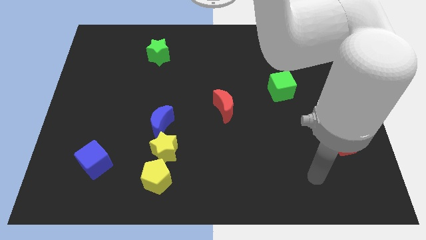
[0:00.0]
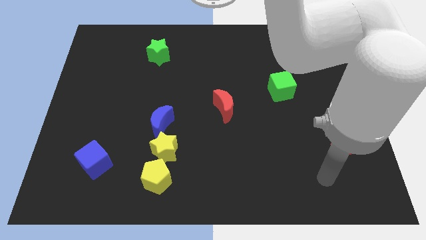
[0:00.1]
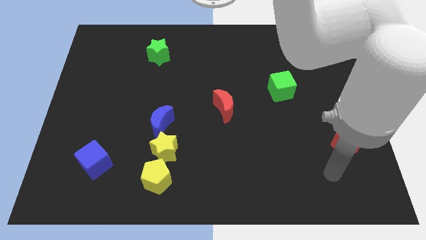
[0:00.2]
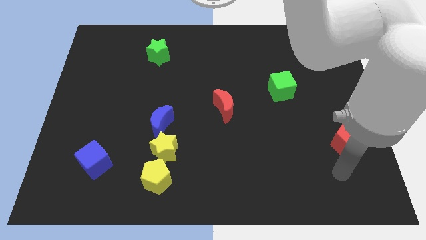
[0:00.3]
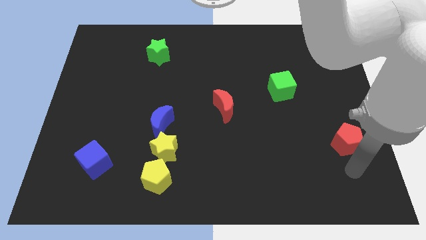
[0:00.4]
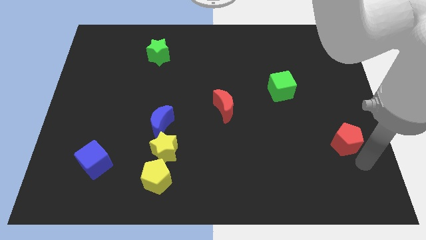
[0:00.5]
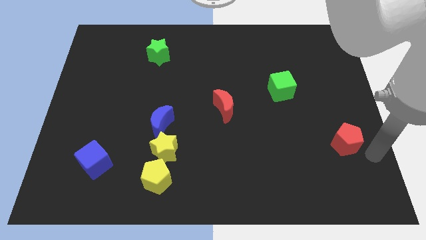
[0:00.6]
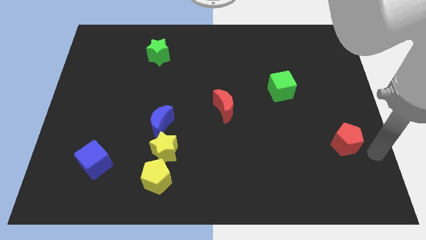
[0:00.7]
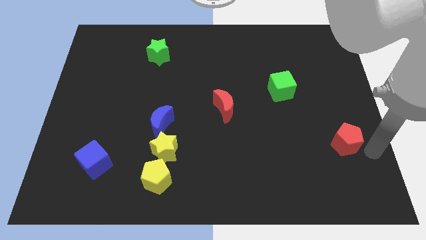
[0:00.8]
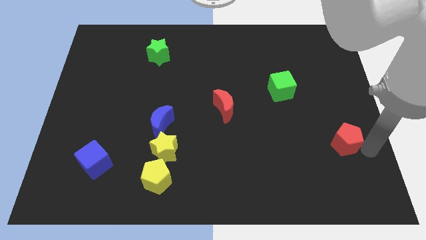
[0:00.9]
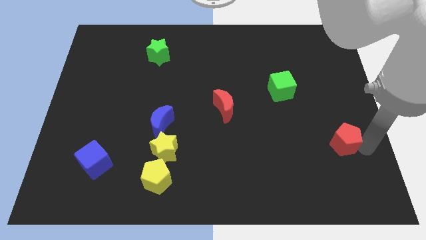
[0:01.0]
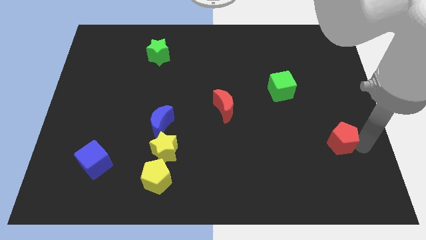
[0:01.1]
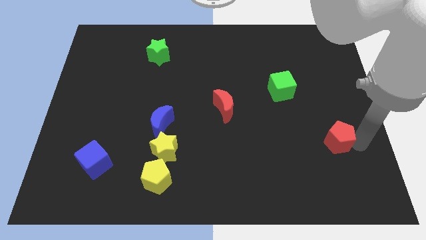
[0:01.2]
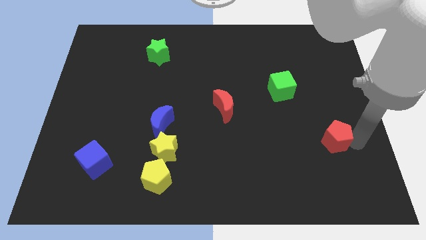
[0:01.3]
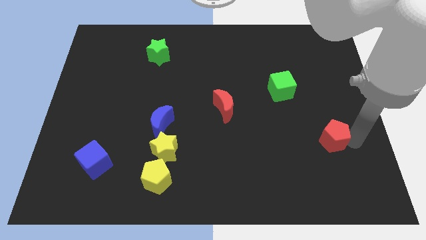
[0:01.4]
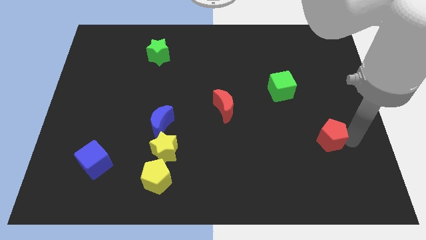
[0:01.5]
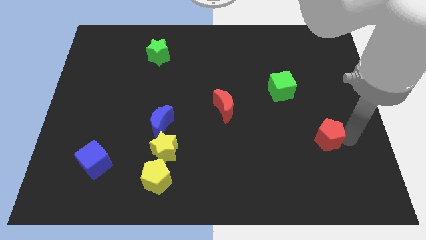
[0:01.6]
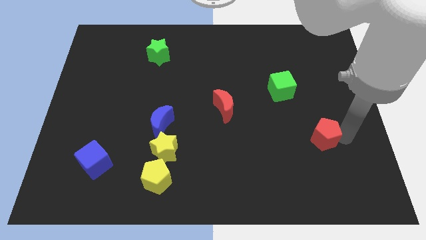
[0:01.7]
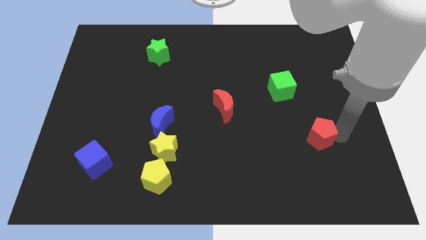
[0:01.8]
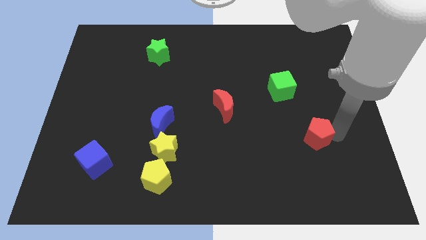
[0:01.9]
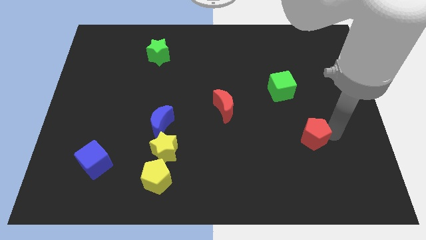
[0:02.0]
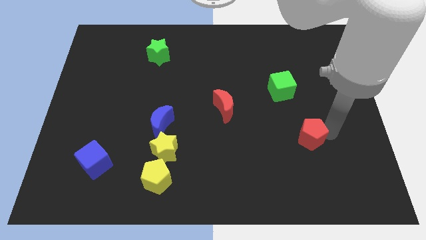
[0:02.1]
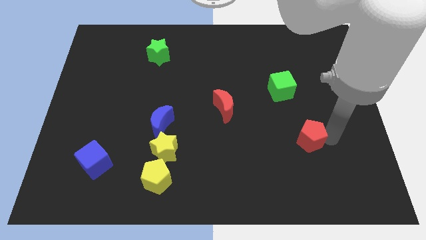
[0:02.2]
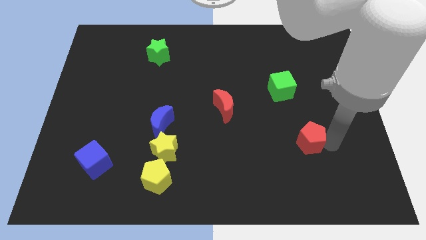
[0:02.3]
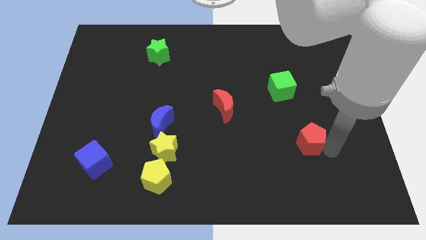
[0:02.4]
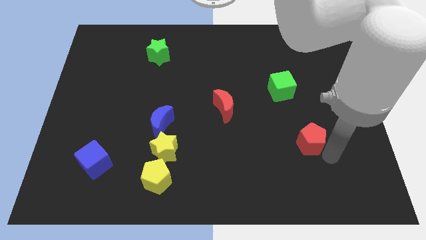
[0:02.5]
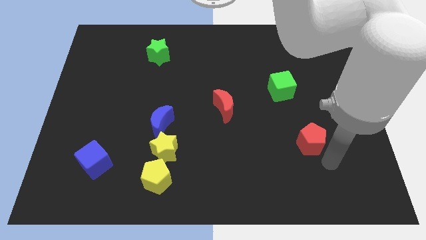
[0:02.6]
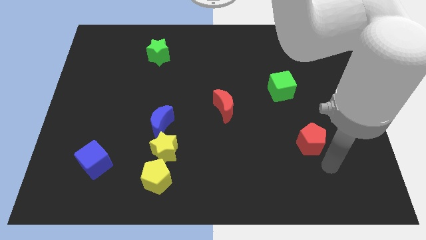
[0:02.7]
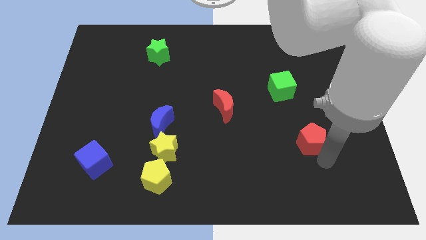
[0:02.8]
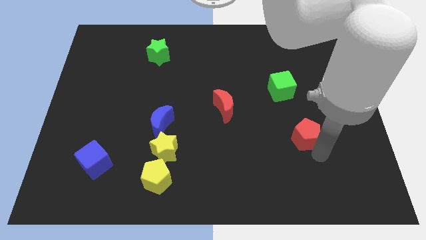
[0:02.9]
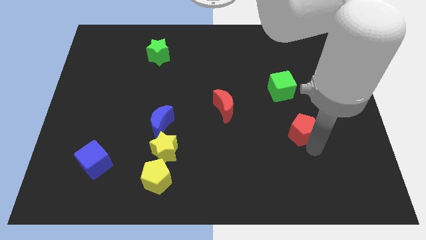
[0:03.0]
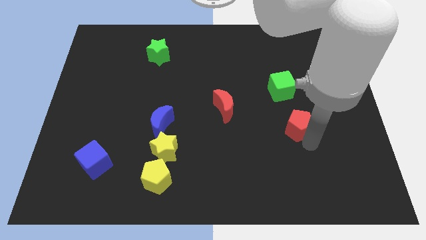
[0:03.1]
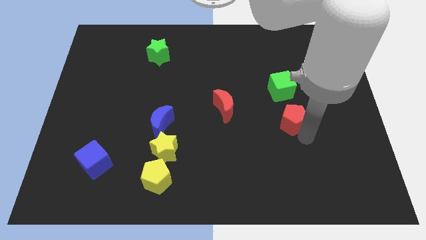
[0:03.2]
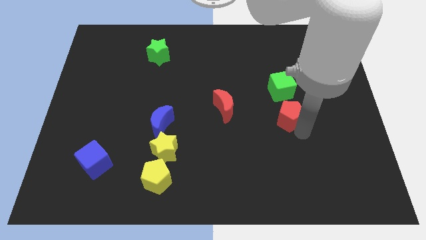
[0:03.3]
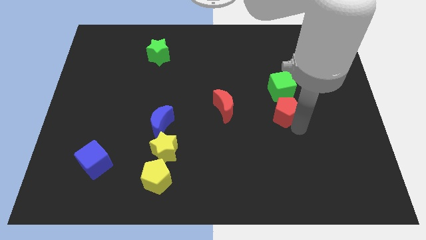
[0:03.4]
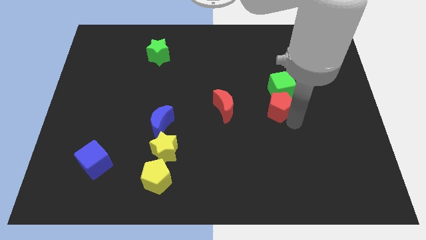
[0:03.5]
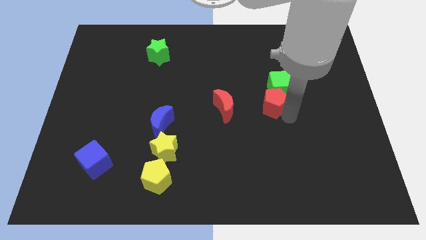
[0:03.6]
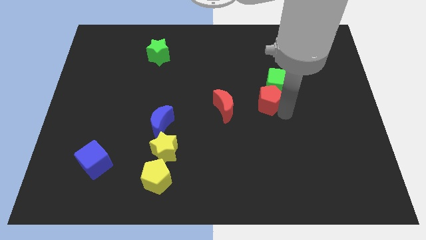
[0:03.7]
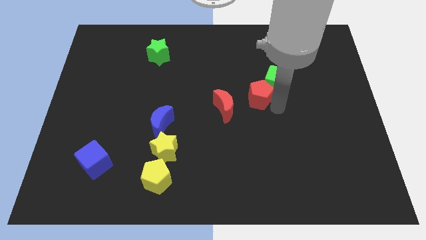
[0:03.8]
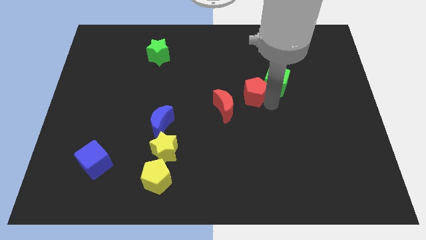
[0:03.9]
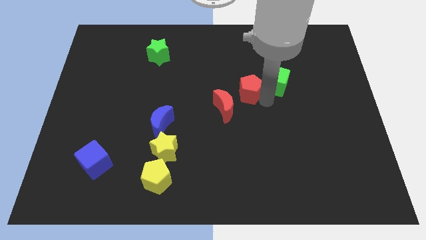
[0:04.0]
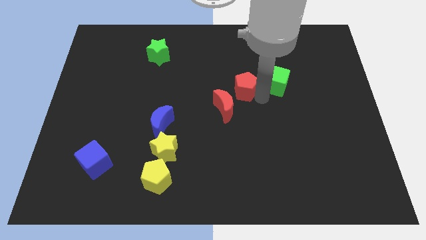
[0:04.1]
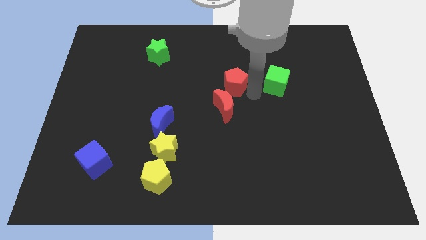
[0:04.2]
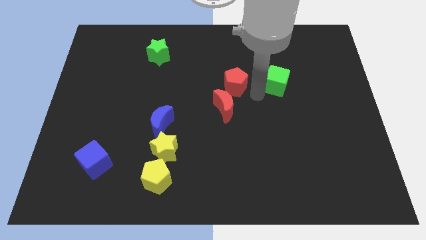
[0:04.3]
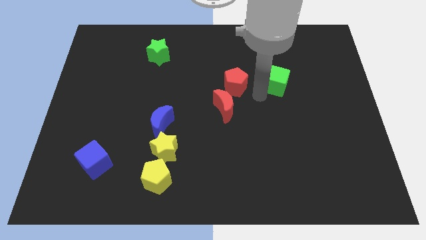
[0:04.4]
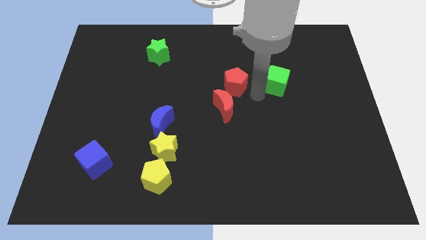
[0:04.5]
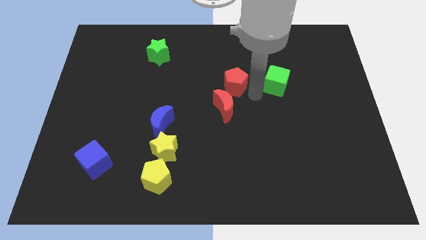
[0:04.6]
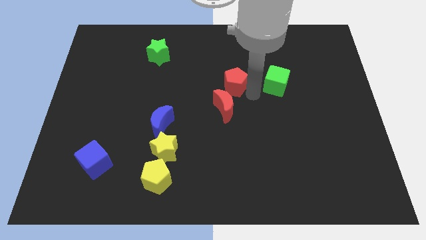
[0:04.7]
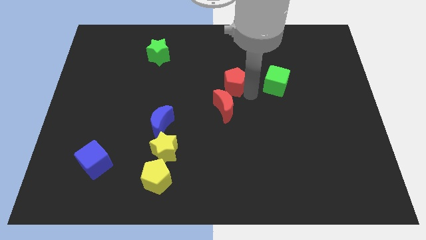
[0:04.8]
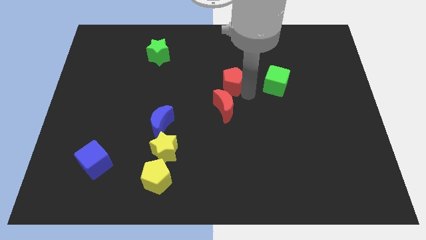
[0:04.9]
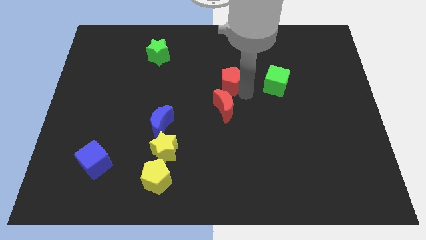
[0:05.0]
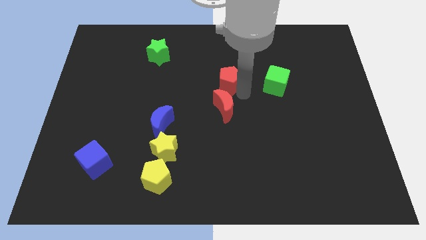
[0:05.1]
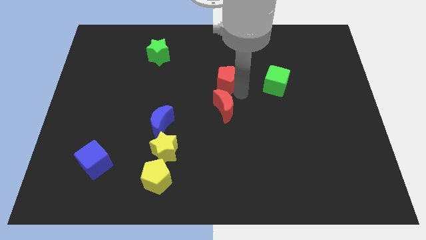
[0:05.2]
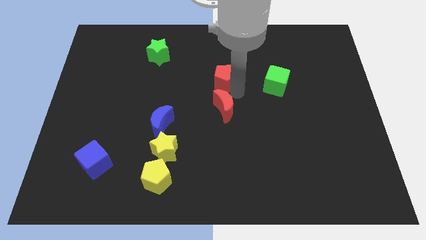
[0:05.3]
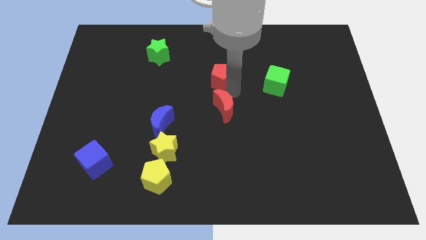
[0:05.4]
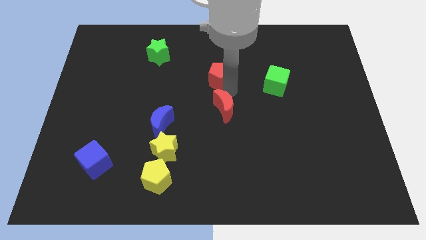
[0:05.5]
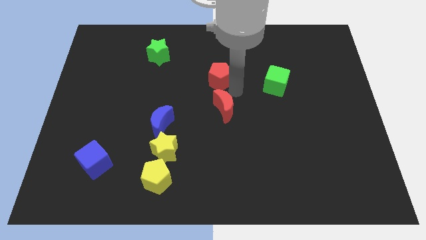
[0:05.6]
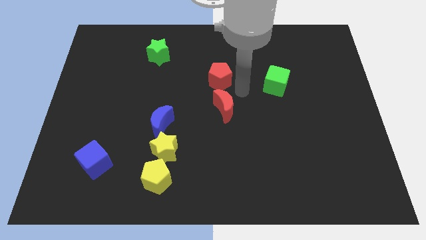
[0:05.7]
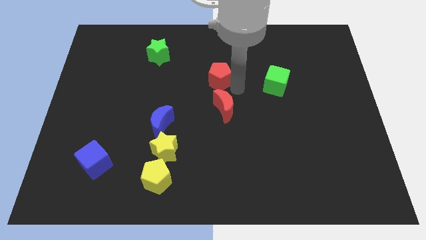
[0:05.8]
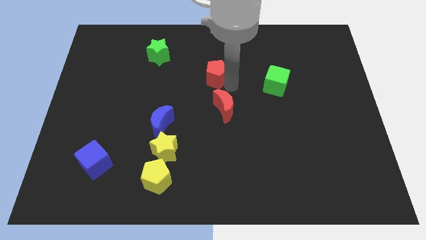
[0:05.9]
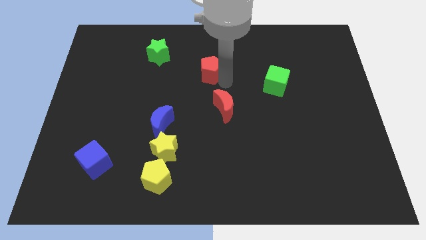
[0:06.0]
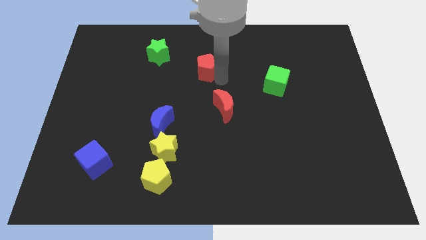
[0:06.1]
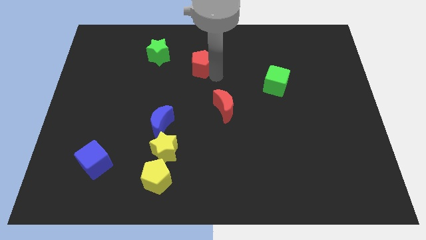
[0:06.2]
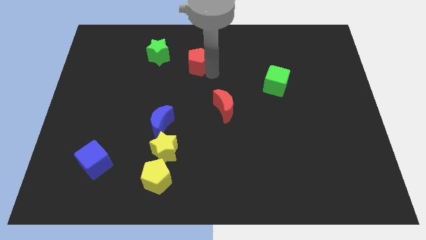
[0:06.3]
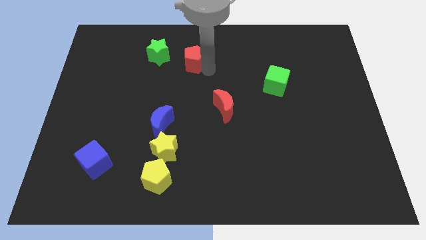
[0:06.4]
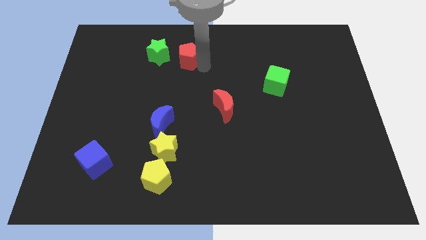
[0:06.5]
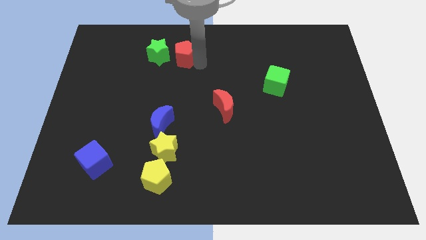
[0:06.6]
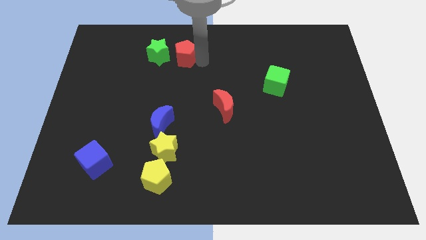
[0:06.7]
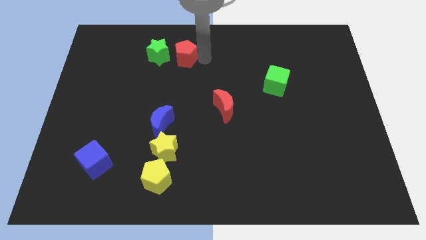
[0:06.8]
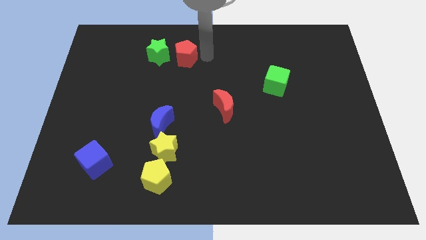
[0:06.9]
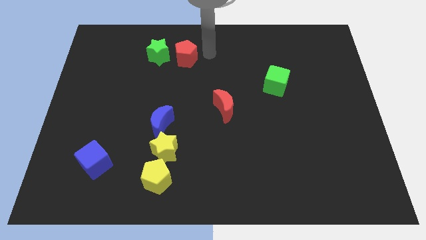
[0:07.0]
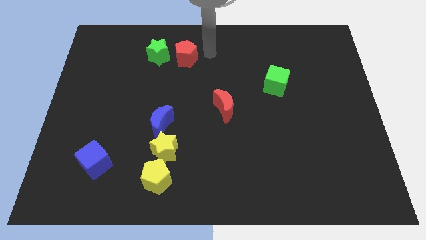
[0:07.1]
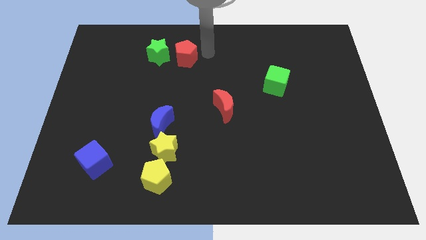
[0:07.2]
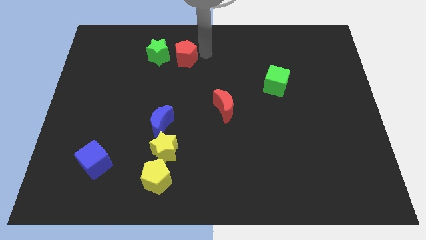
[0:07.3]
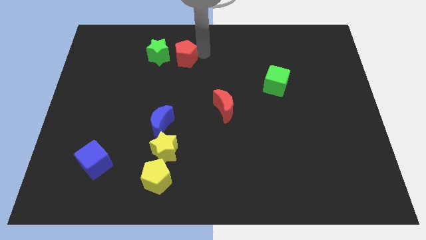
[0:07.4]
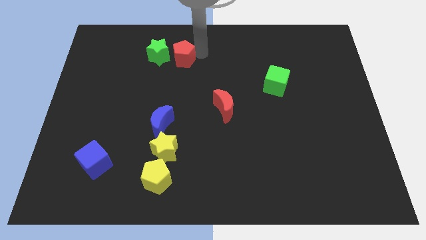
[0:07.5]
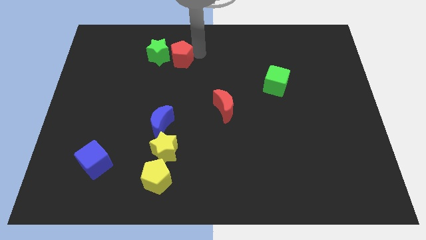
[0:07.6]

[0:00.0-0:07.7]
move the red pentagon to the green star
